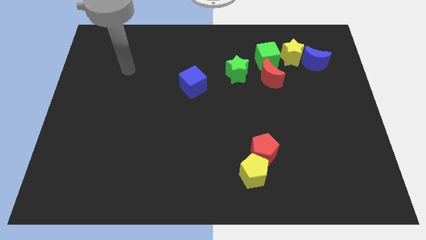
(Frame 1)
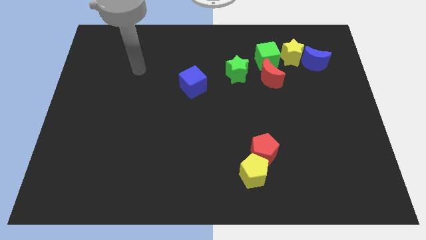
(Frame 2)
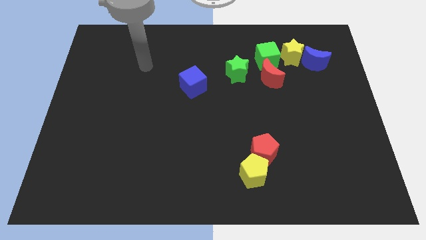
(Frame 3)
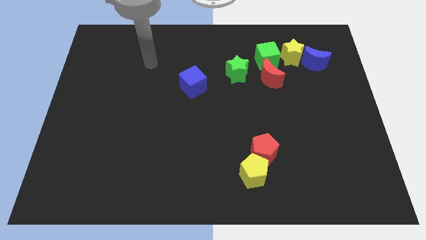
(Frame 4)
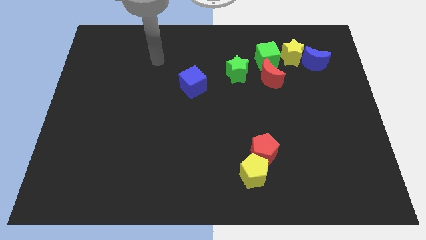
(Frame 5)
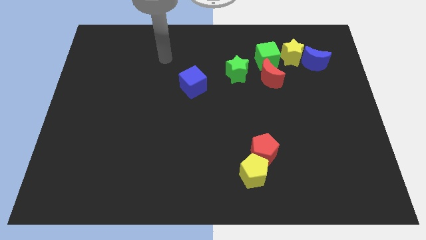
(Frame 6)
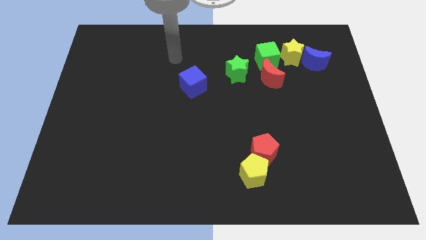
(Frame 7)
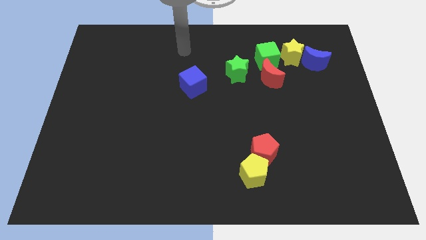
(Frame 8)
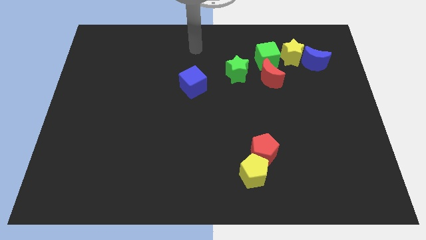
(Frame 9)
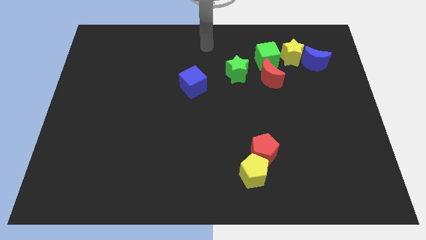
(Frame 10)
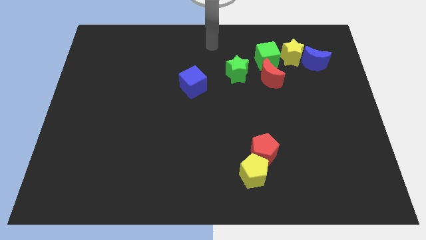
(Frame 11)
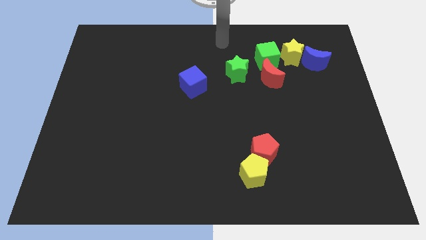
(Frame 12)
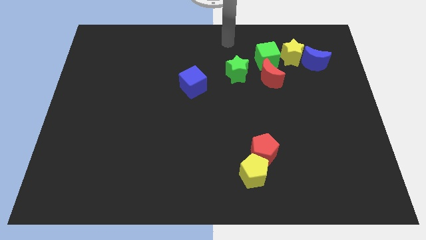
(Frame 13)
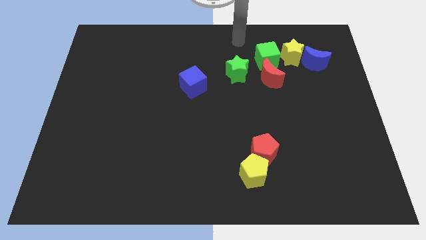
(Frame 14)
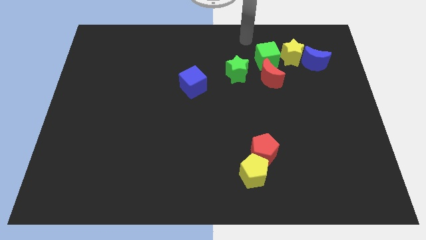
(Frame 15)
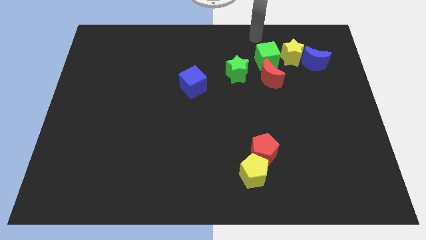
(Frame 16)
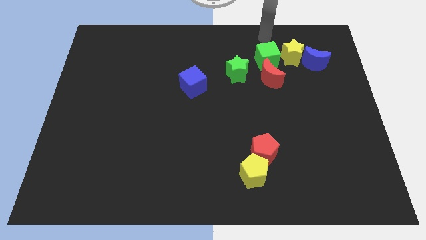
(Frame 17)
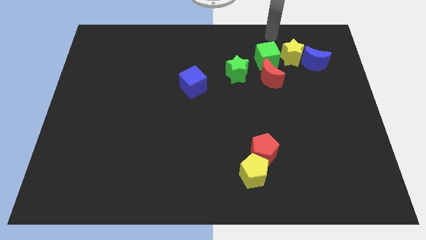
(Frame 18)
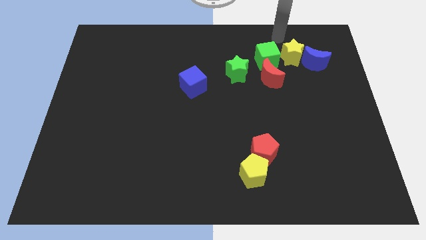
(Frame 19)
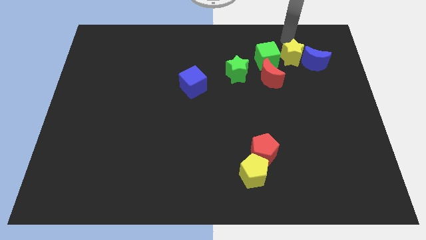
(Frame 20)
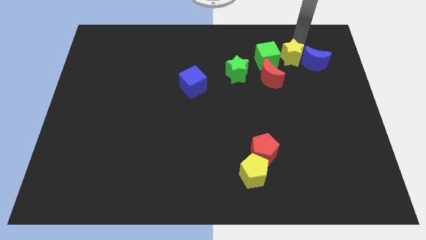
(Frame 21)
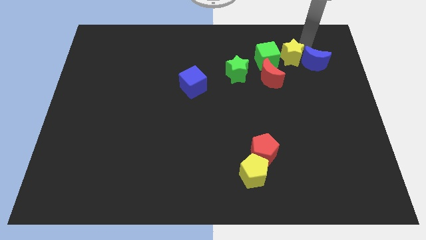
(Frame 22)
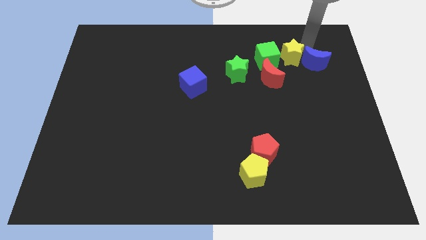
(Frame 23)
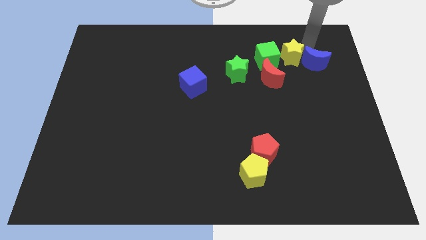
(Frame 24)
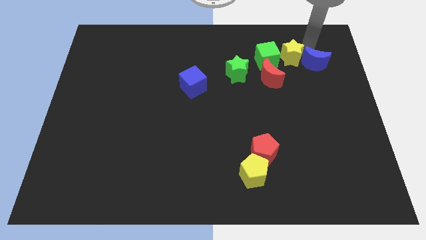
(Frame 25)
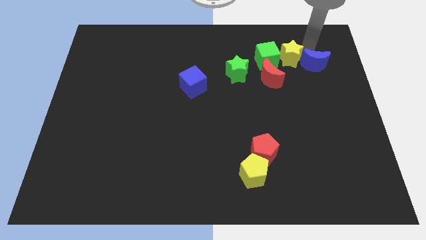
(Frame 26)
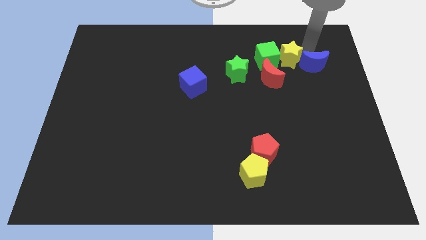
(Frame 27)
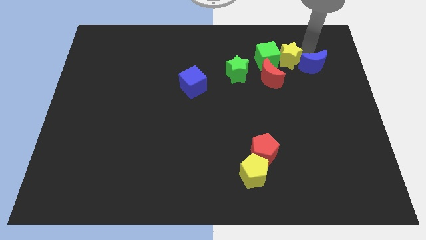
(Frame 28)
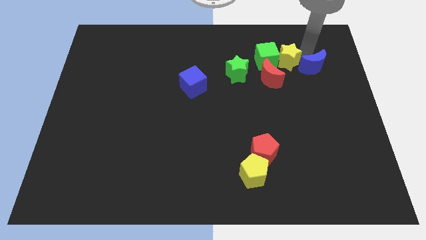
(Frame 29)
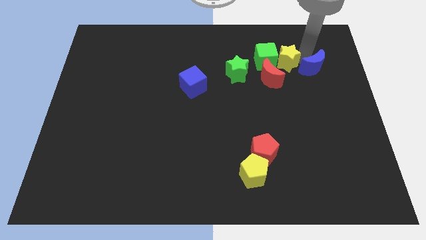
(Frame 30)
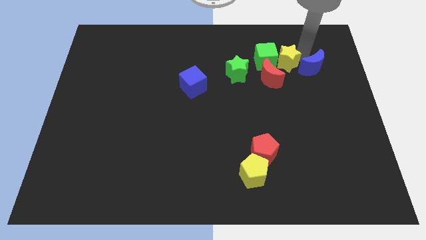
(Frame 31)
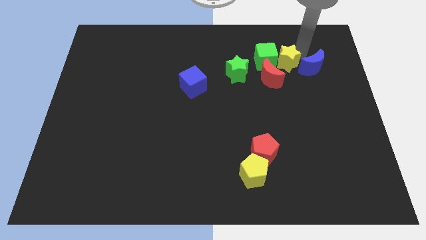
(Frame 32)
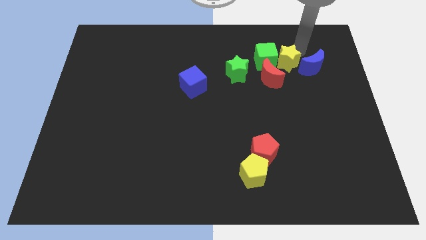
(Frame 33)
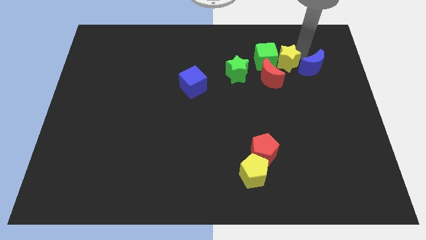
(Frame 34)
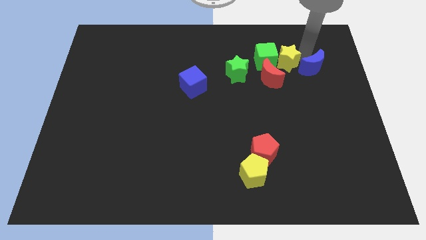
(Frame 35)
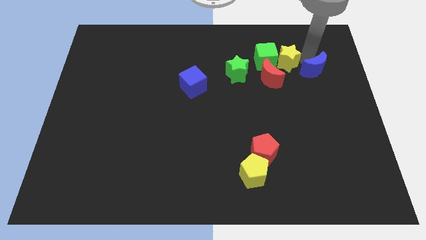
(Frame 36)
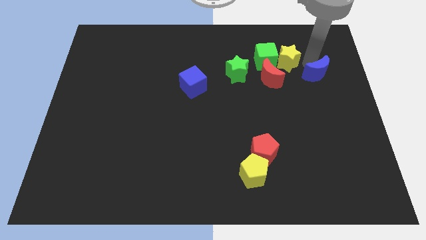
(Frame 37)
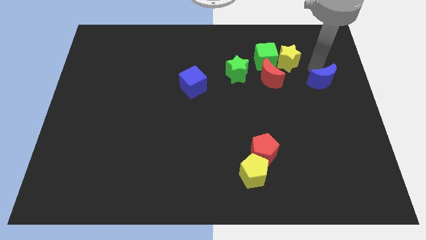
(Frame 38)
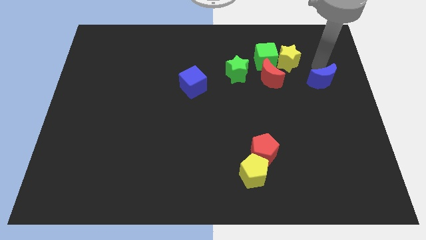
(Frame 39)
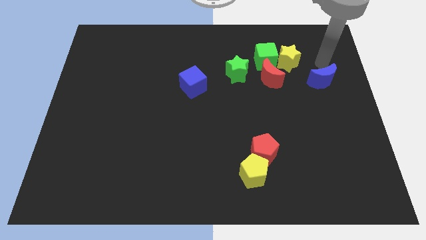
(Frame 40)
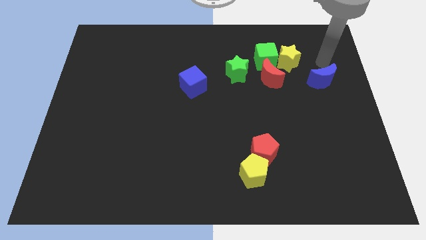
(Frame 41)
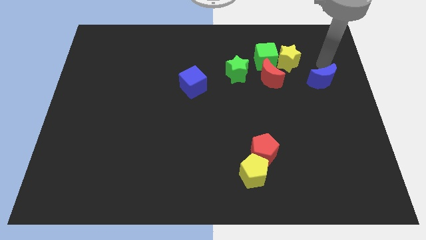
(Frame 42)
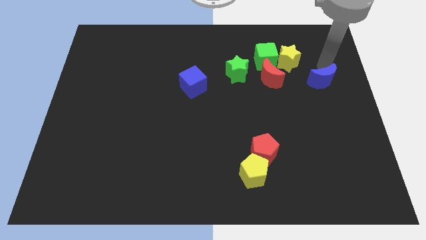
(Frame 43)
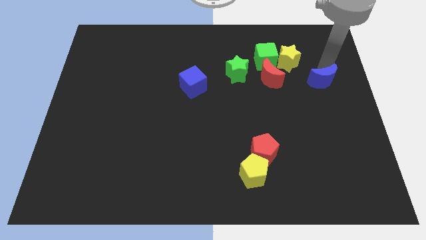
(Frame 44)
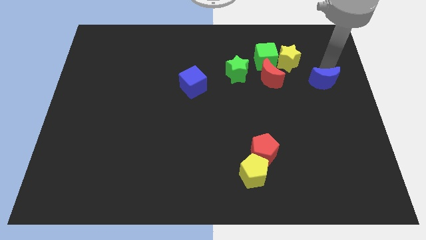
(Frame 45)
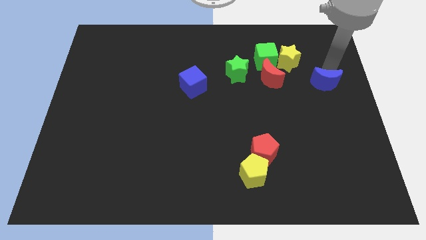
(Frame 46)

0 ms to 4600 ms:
slide the blue moon a bit down

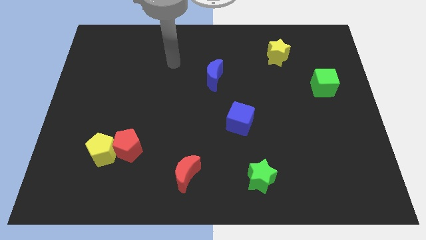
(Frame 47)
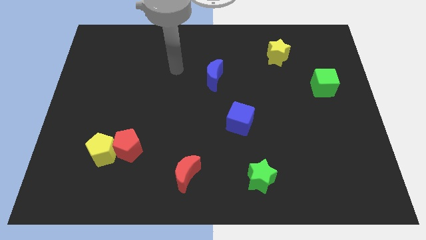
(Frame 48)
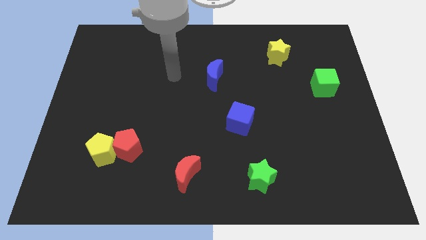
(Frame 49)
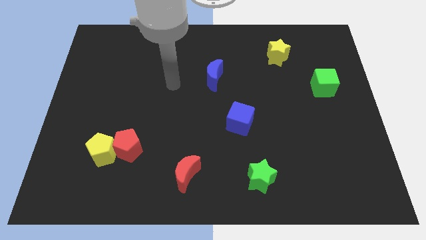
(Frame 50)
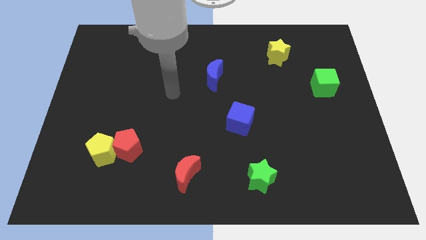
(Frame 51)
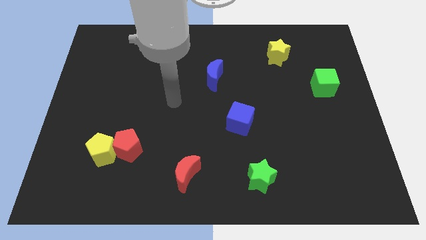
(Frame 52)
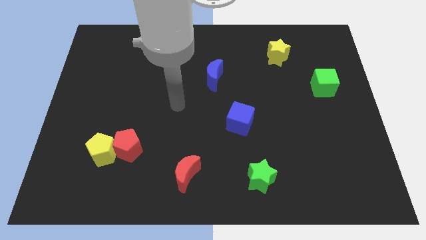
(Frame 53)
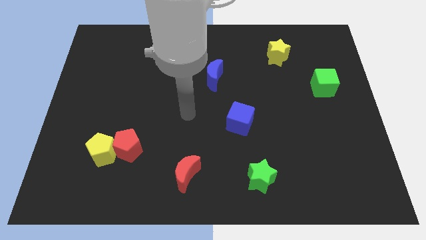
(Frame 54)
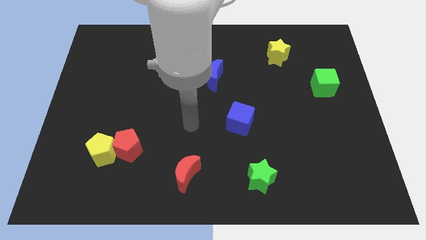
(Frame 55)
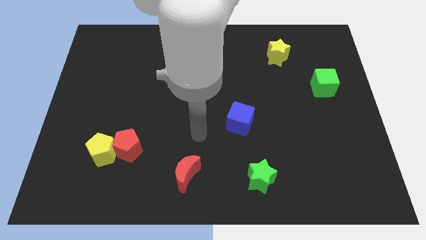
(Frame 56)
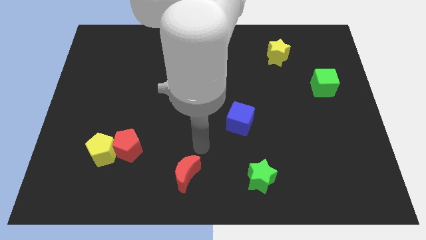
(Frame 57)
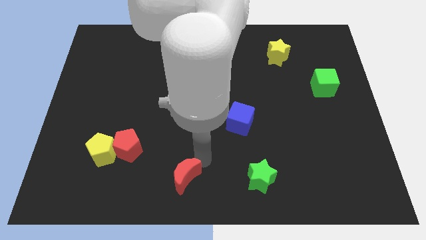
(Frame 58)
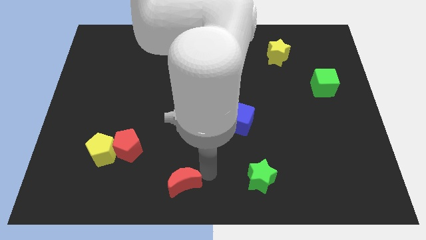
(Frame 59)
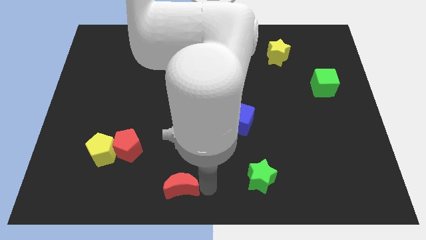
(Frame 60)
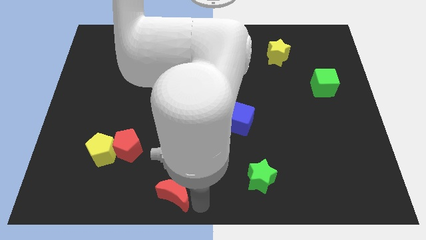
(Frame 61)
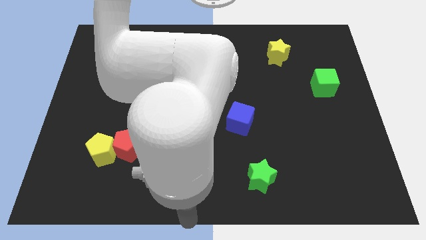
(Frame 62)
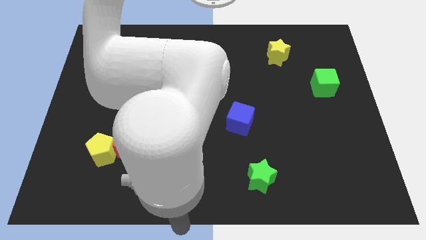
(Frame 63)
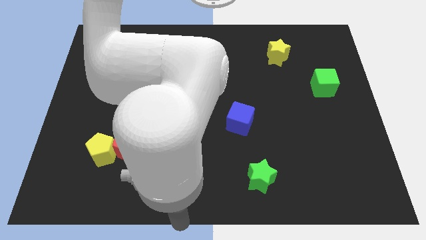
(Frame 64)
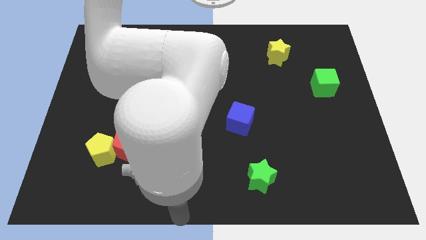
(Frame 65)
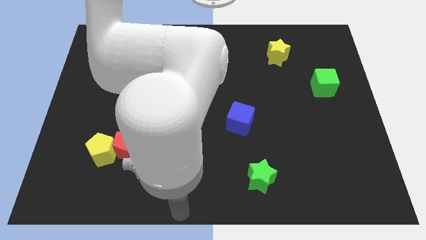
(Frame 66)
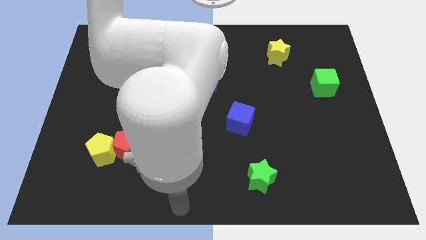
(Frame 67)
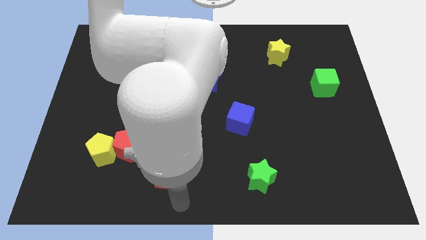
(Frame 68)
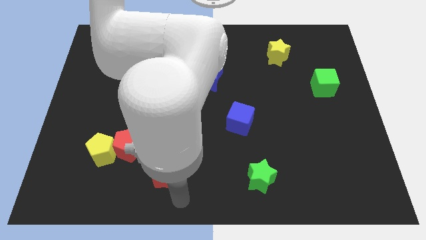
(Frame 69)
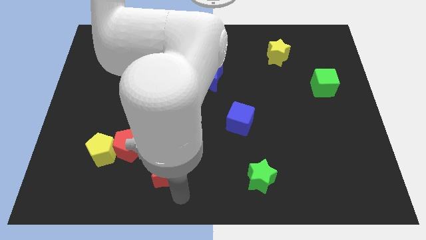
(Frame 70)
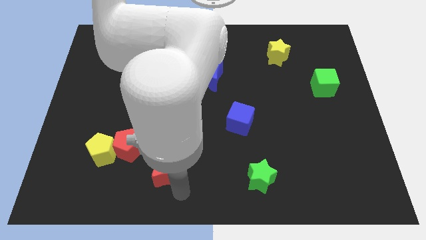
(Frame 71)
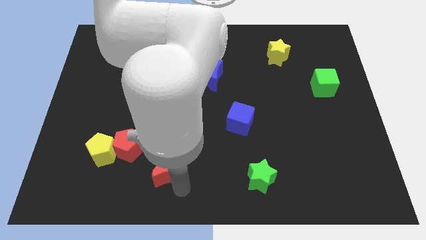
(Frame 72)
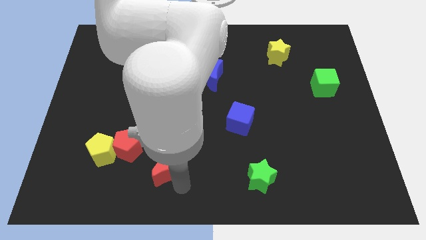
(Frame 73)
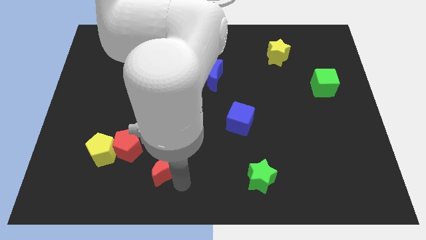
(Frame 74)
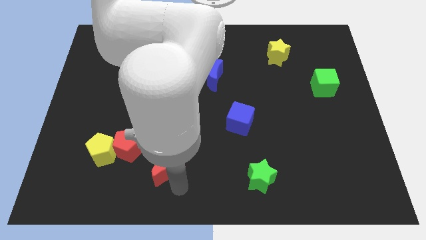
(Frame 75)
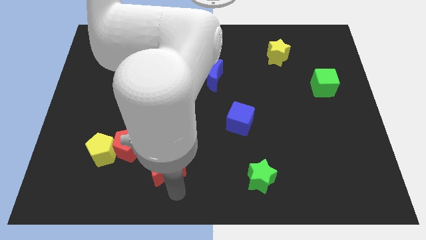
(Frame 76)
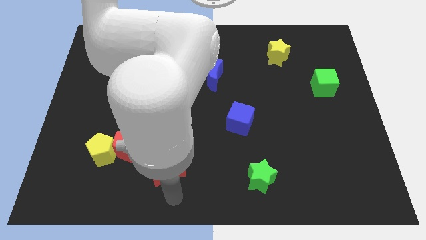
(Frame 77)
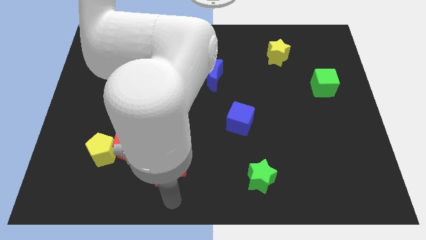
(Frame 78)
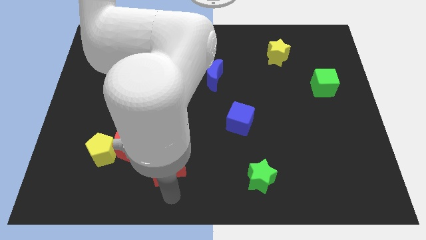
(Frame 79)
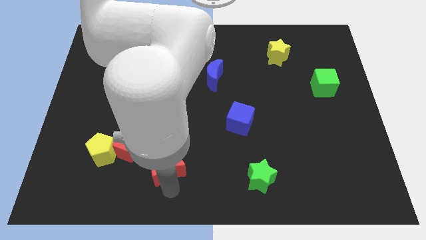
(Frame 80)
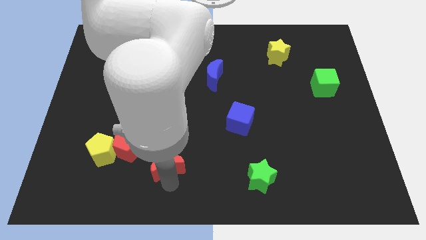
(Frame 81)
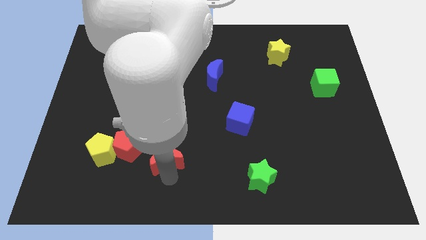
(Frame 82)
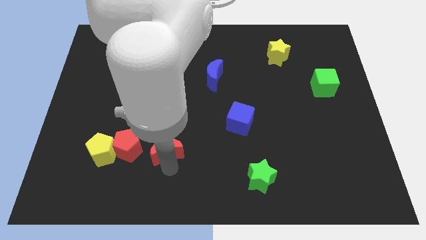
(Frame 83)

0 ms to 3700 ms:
slightly push the red moon upwards and to the left
